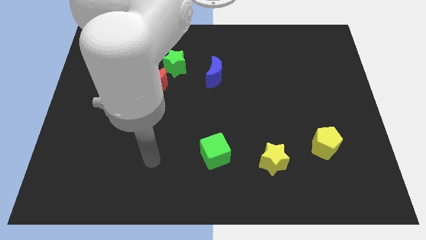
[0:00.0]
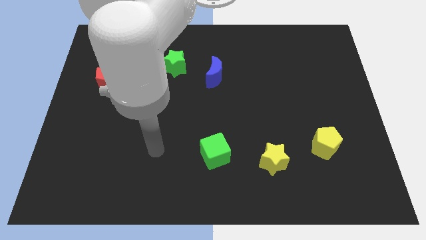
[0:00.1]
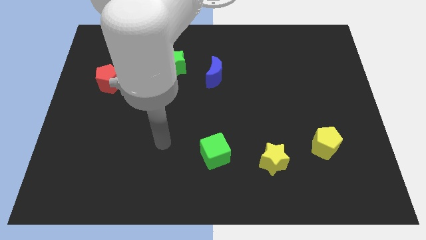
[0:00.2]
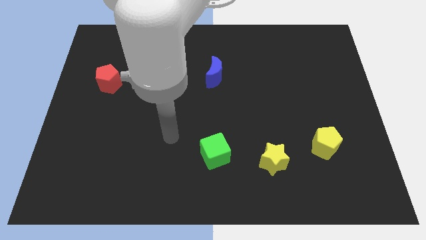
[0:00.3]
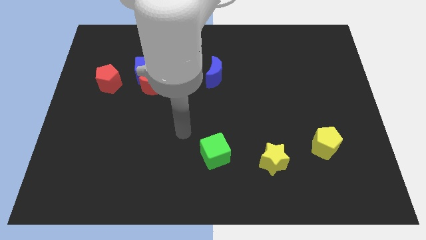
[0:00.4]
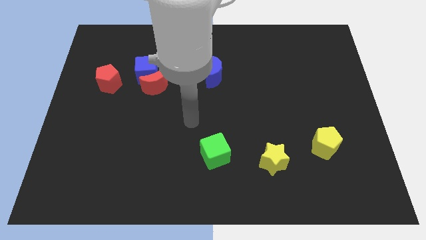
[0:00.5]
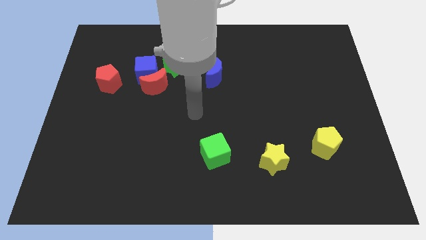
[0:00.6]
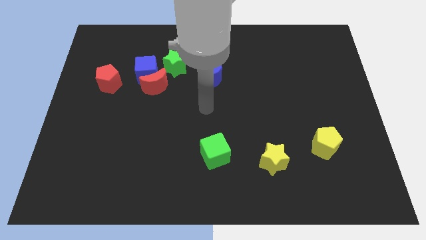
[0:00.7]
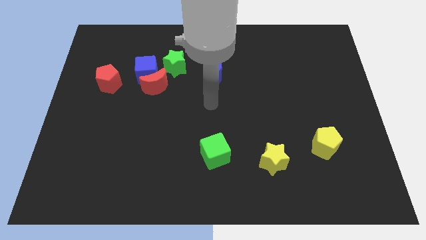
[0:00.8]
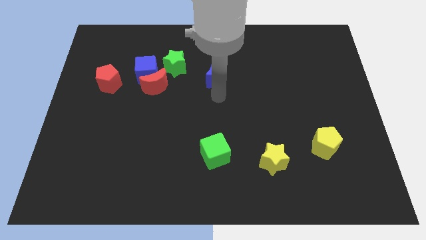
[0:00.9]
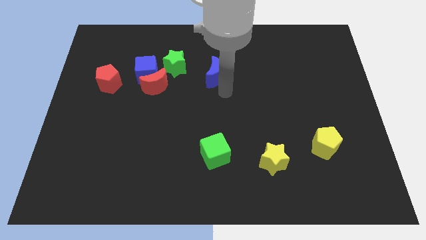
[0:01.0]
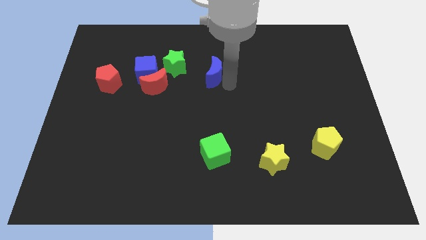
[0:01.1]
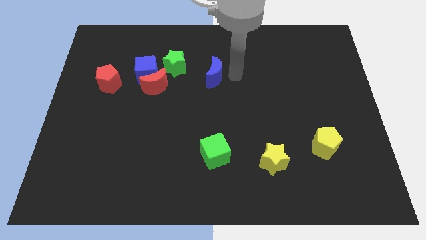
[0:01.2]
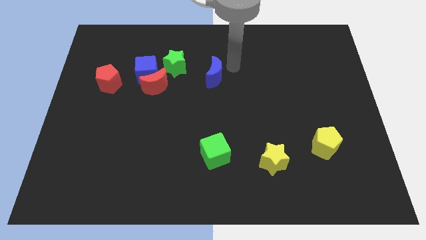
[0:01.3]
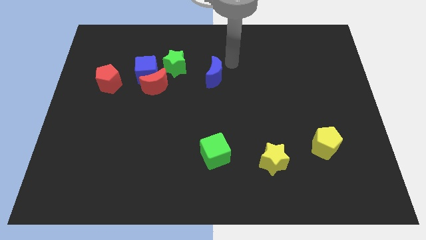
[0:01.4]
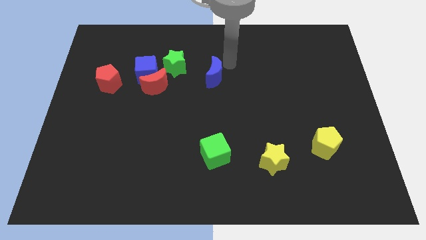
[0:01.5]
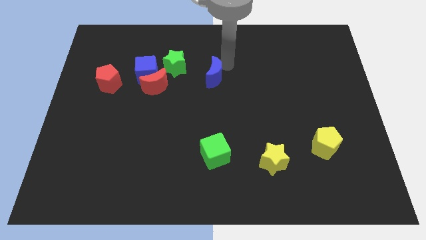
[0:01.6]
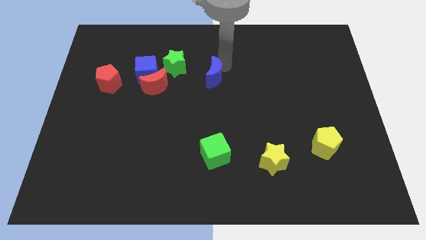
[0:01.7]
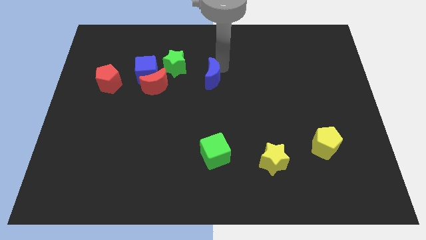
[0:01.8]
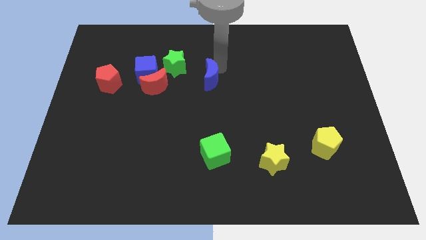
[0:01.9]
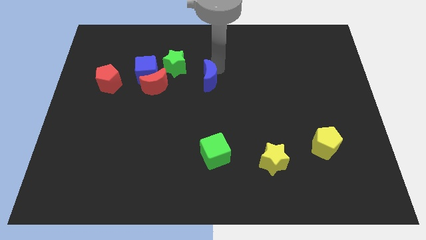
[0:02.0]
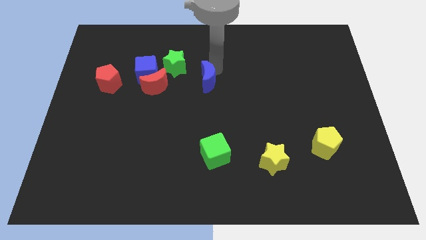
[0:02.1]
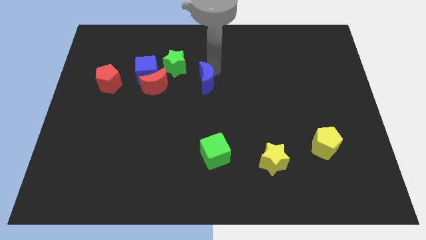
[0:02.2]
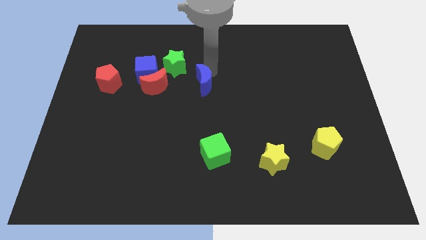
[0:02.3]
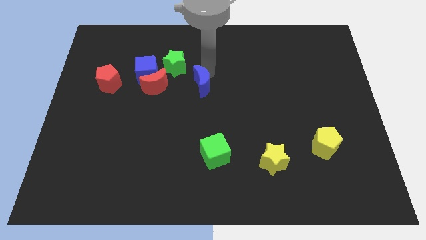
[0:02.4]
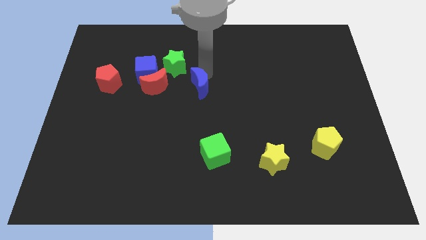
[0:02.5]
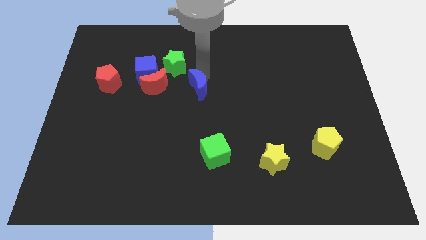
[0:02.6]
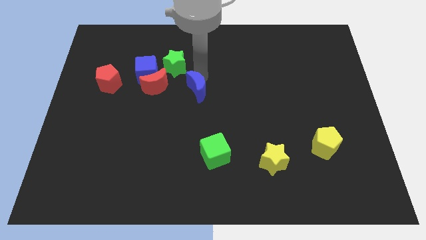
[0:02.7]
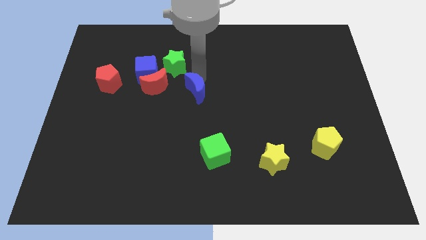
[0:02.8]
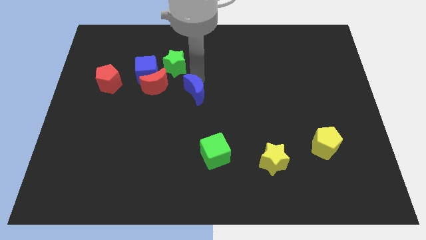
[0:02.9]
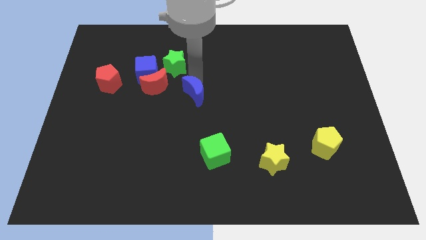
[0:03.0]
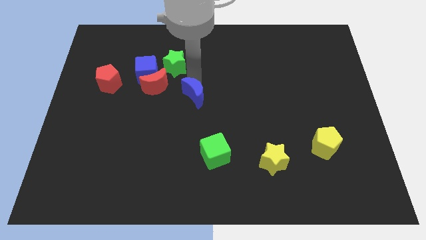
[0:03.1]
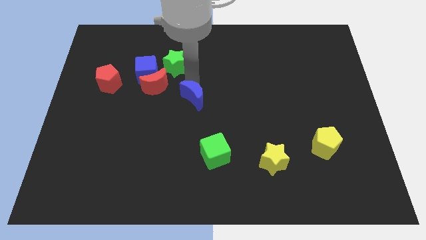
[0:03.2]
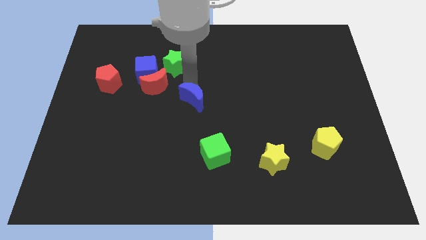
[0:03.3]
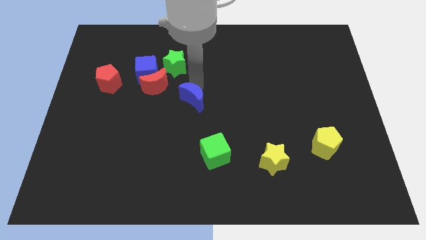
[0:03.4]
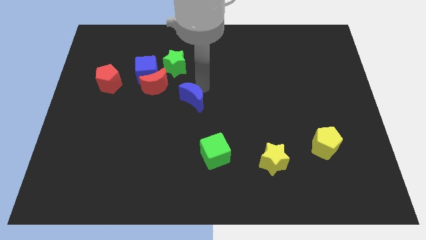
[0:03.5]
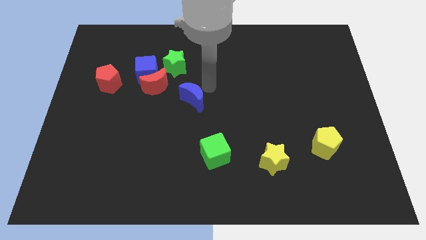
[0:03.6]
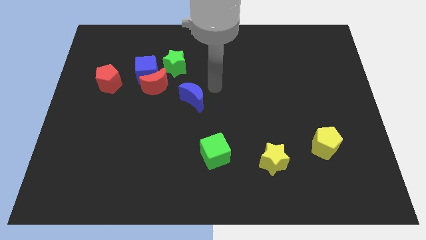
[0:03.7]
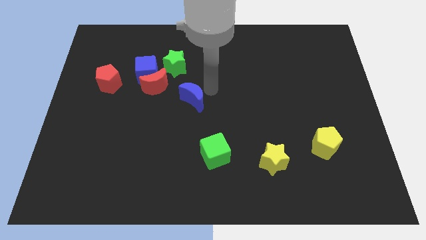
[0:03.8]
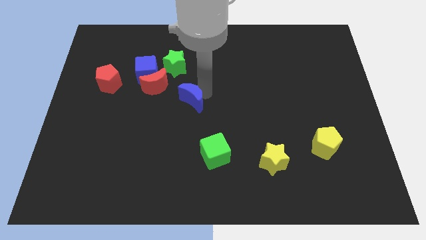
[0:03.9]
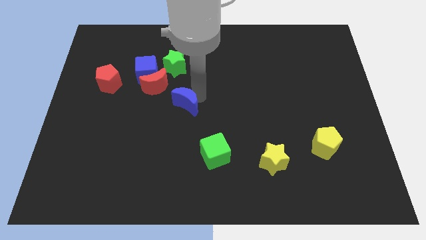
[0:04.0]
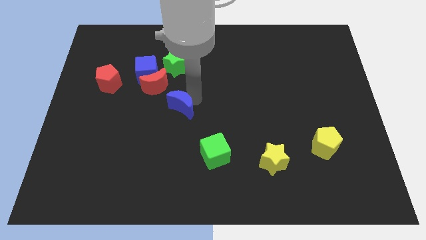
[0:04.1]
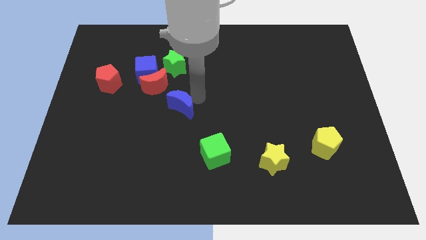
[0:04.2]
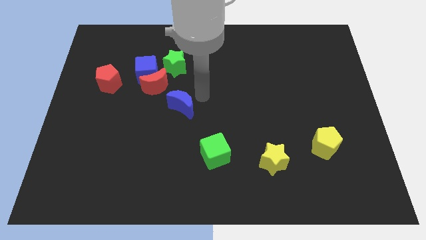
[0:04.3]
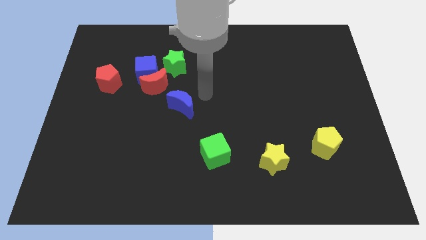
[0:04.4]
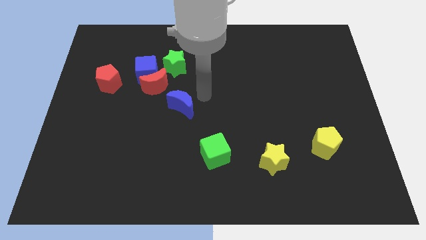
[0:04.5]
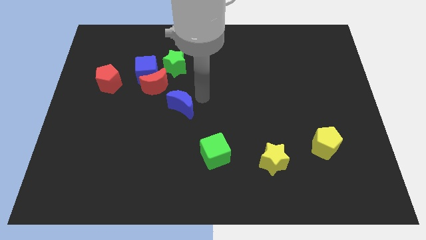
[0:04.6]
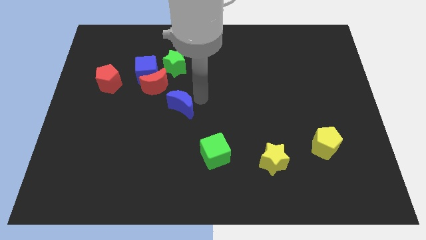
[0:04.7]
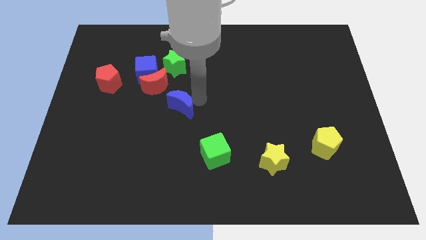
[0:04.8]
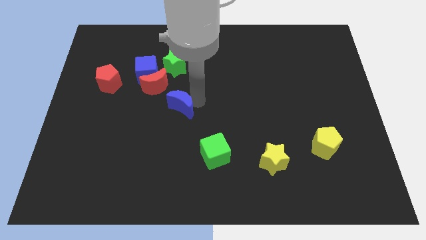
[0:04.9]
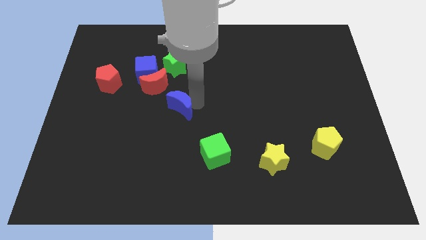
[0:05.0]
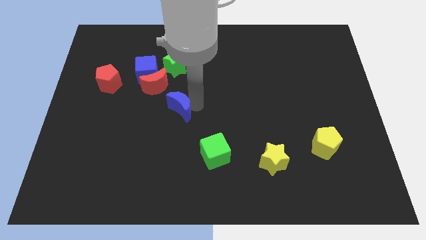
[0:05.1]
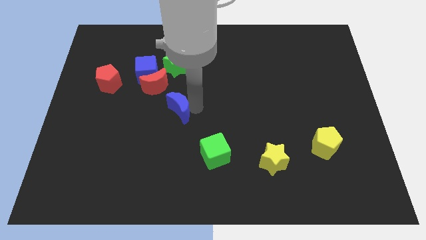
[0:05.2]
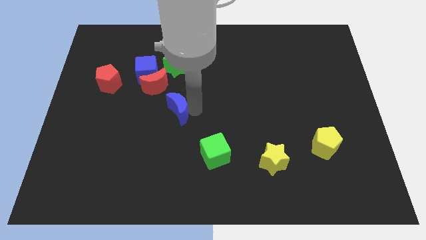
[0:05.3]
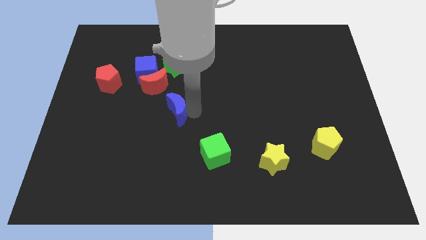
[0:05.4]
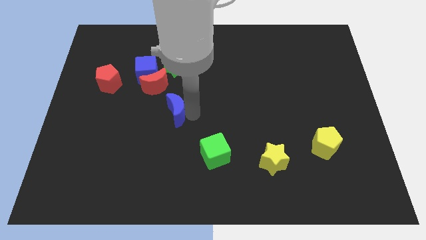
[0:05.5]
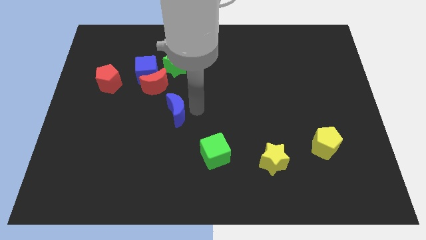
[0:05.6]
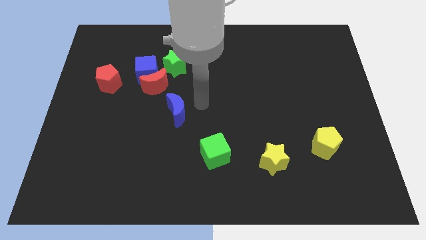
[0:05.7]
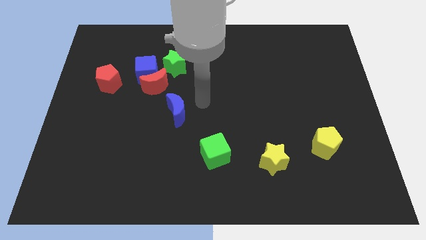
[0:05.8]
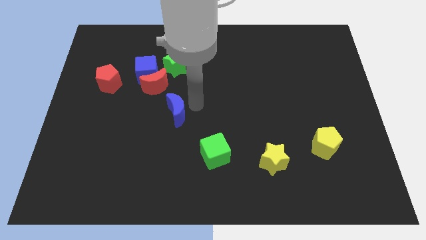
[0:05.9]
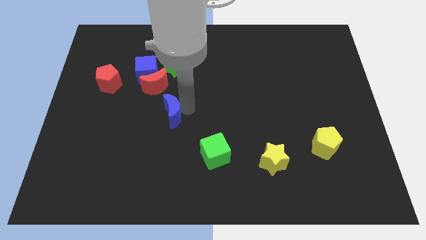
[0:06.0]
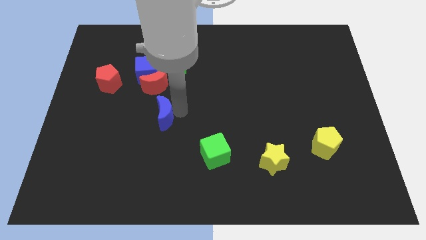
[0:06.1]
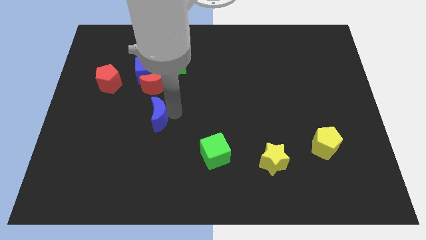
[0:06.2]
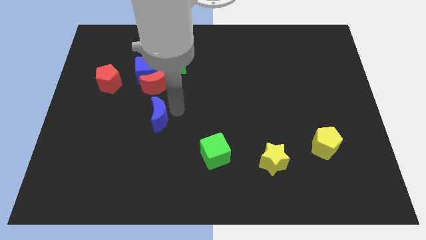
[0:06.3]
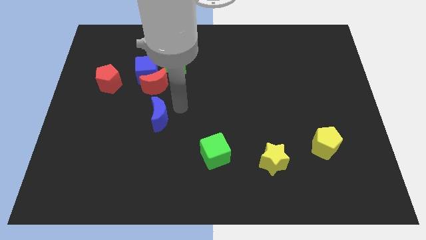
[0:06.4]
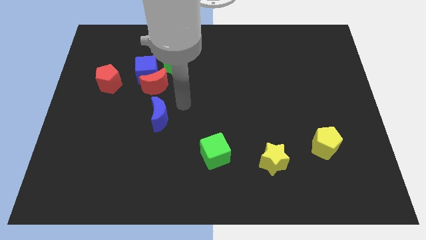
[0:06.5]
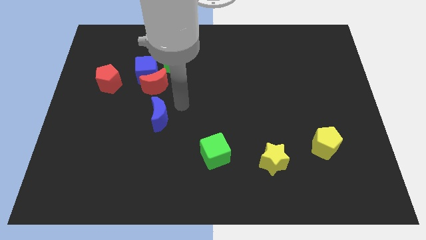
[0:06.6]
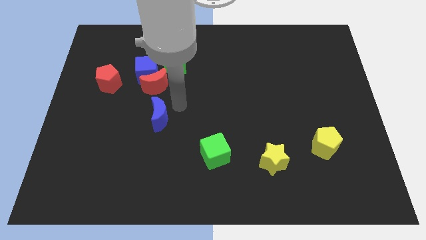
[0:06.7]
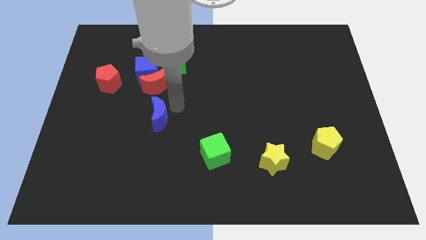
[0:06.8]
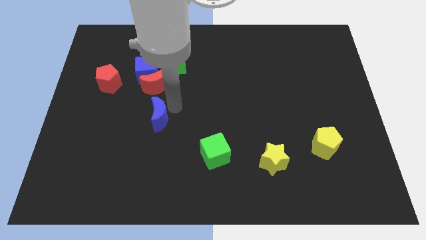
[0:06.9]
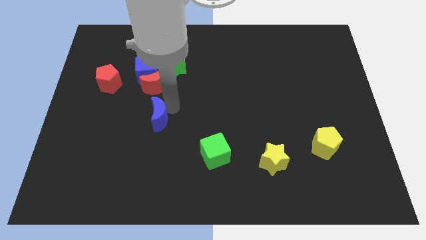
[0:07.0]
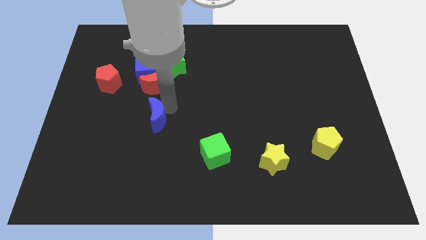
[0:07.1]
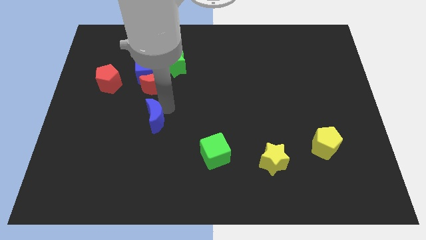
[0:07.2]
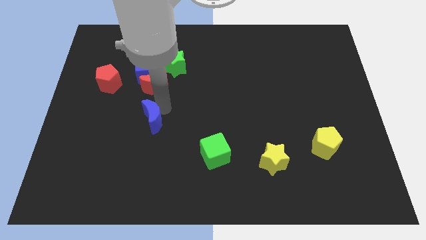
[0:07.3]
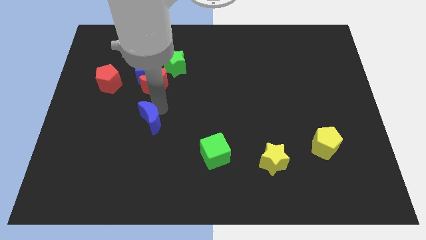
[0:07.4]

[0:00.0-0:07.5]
push the blue moon downwards and left diagonally
